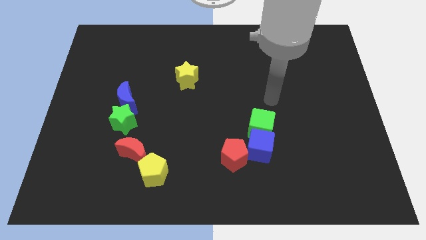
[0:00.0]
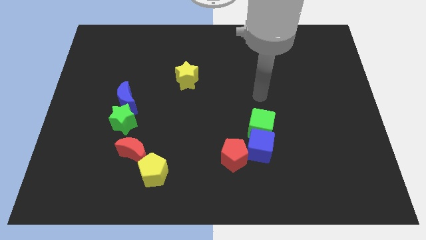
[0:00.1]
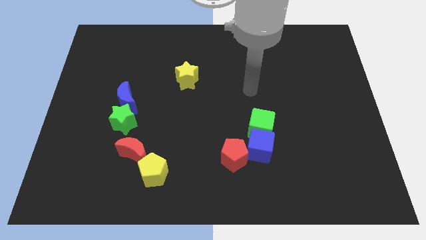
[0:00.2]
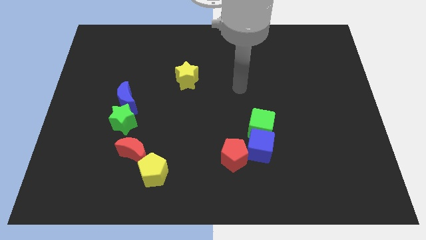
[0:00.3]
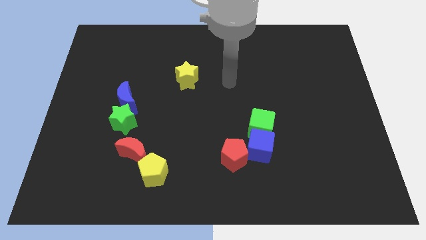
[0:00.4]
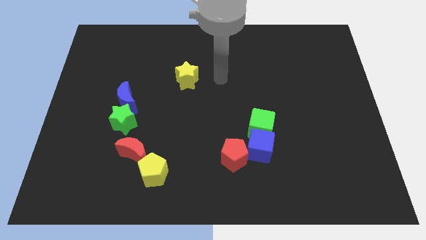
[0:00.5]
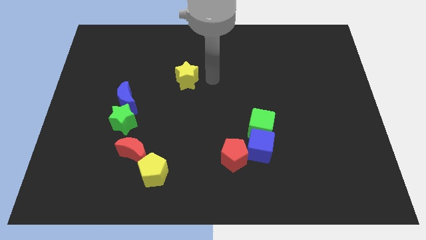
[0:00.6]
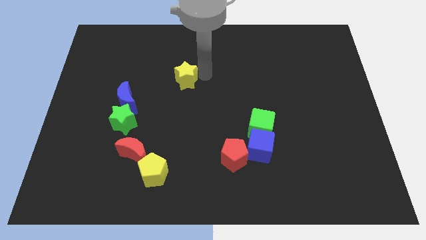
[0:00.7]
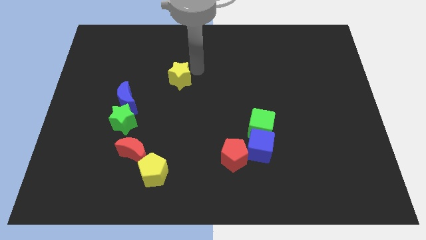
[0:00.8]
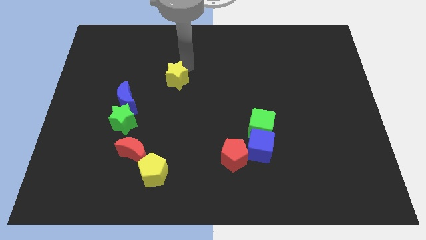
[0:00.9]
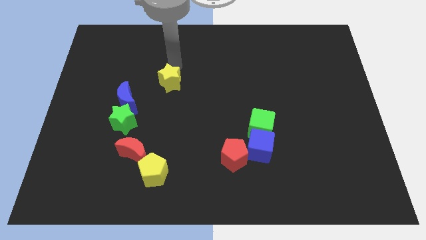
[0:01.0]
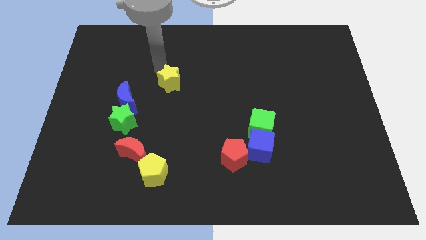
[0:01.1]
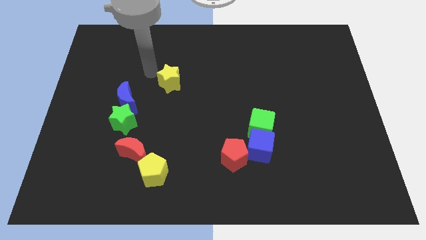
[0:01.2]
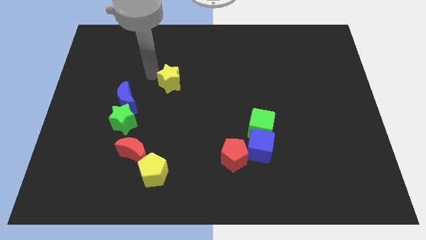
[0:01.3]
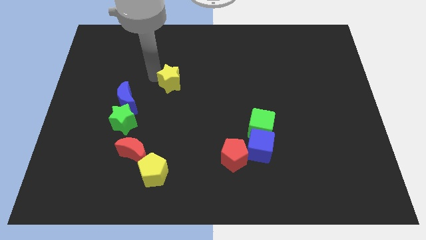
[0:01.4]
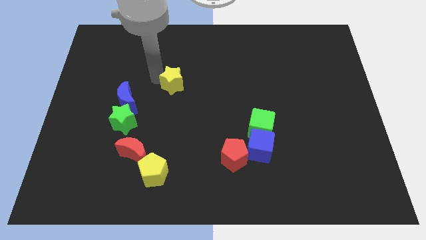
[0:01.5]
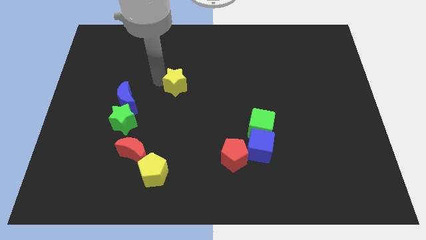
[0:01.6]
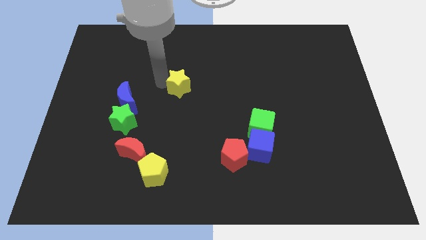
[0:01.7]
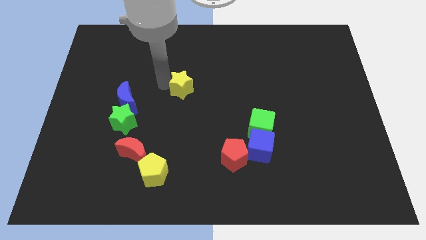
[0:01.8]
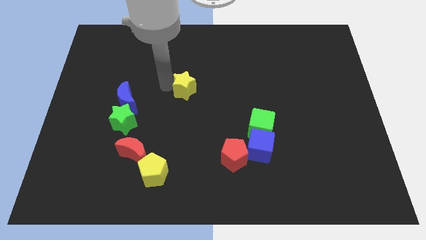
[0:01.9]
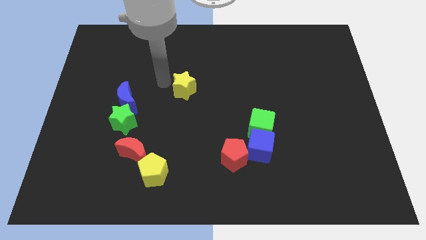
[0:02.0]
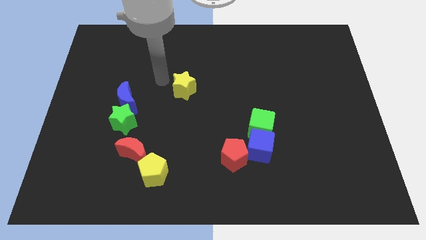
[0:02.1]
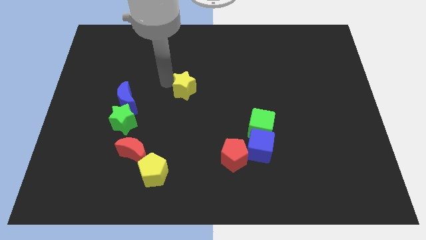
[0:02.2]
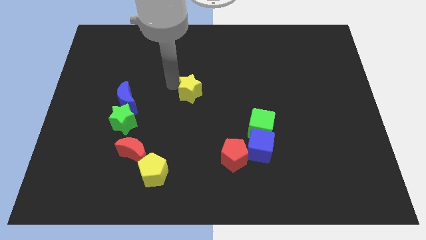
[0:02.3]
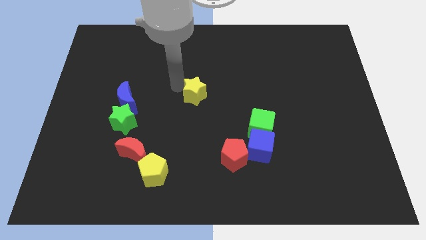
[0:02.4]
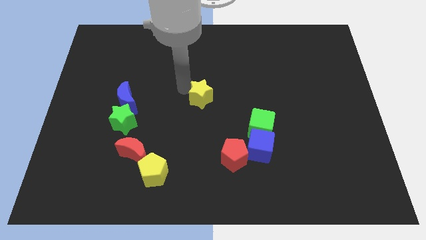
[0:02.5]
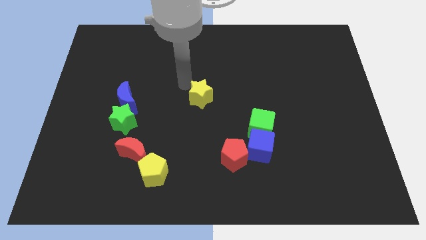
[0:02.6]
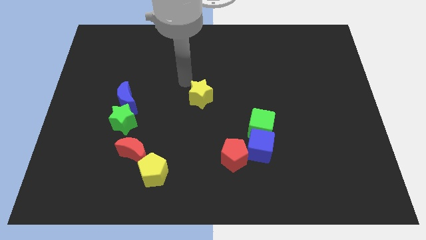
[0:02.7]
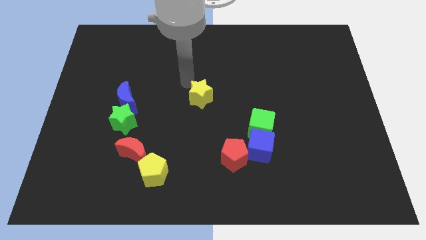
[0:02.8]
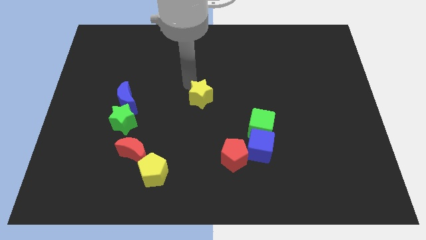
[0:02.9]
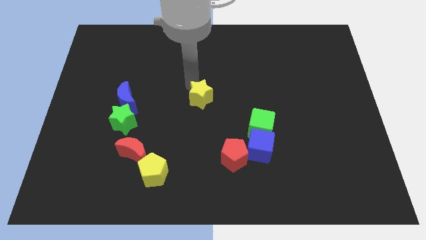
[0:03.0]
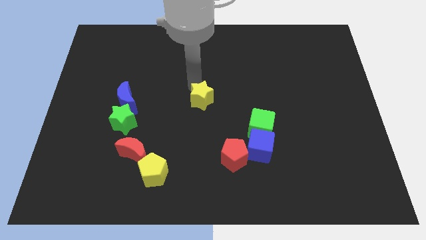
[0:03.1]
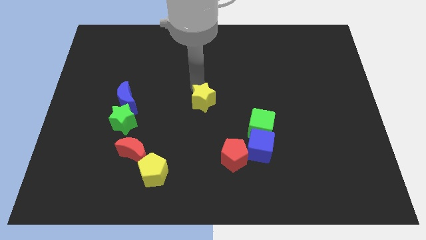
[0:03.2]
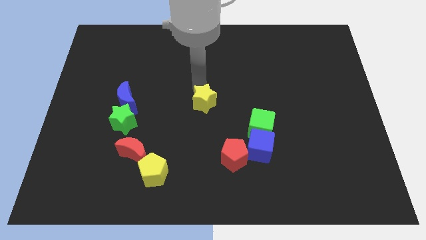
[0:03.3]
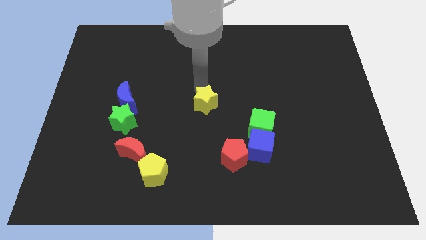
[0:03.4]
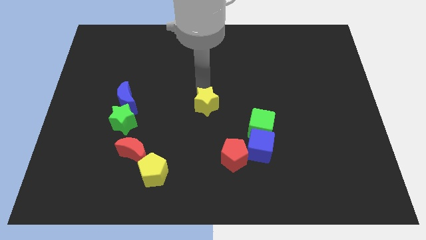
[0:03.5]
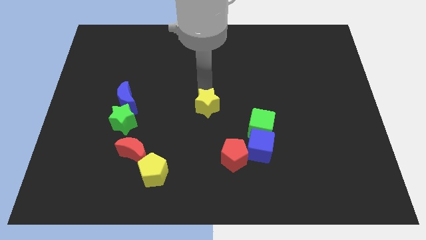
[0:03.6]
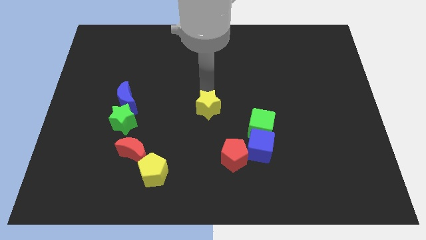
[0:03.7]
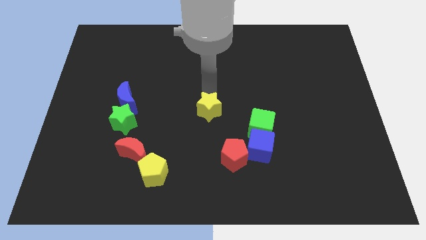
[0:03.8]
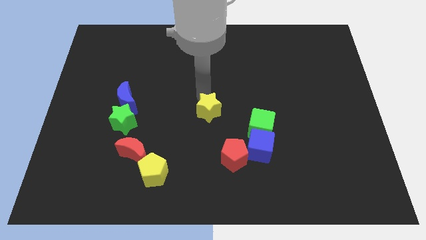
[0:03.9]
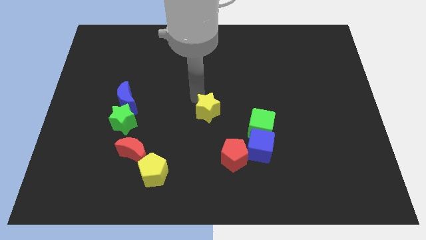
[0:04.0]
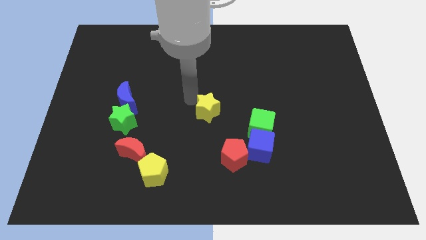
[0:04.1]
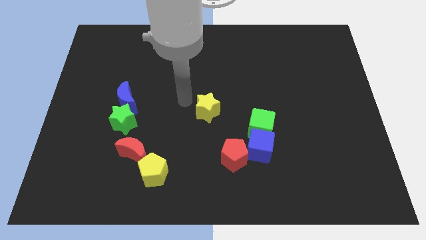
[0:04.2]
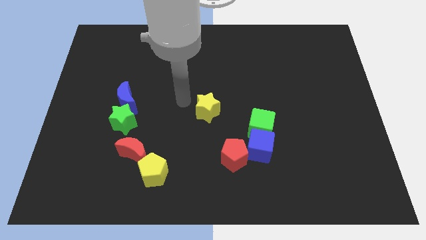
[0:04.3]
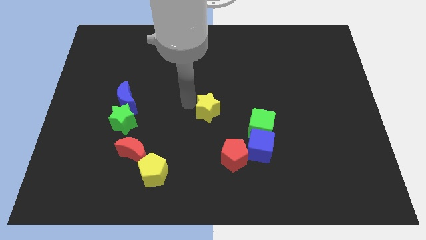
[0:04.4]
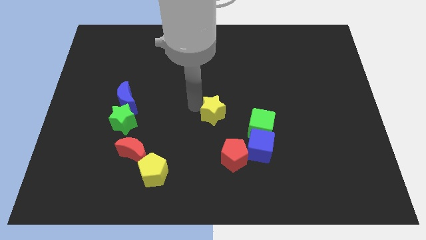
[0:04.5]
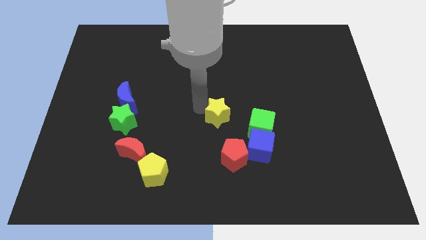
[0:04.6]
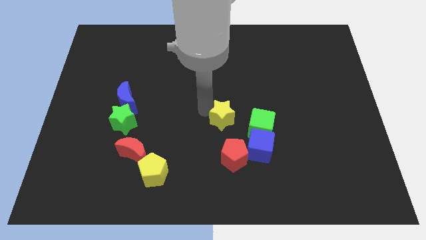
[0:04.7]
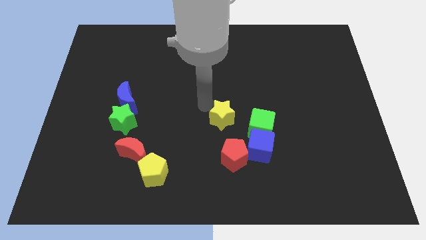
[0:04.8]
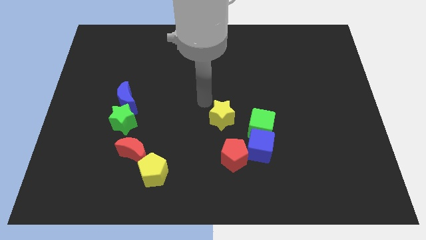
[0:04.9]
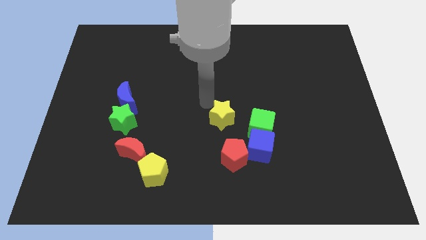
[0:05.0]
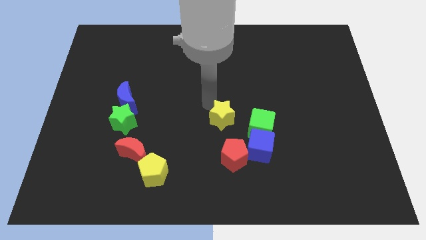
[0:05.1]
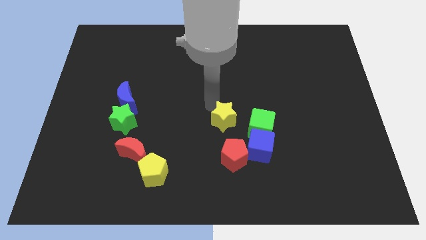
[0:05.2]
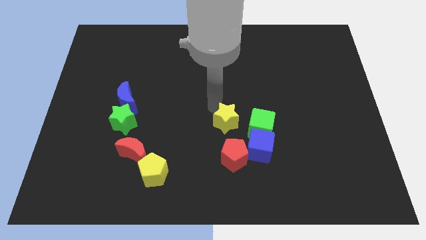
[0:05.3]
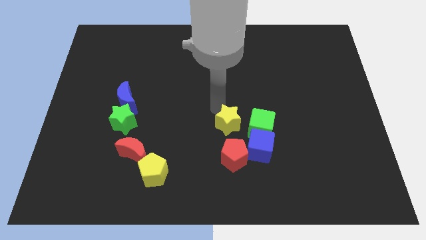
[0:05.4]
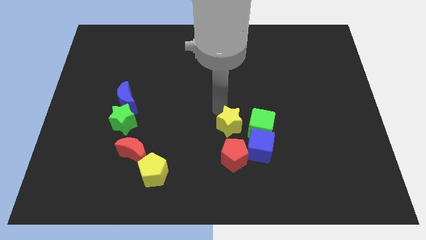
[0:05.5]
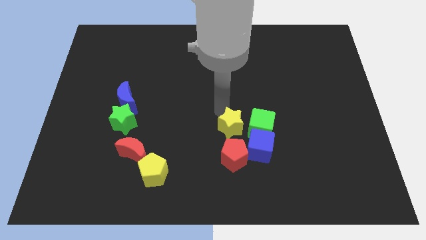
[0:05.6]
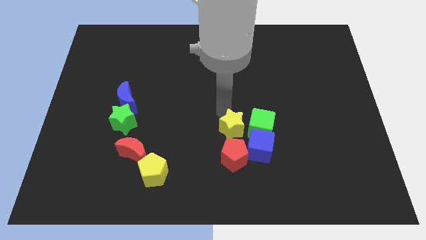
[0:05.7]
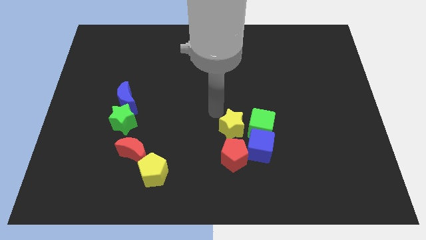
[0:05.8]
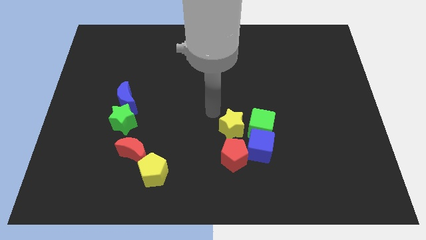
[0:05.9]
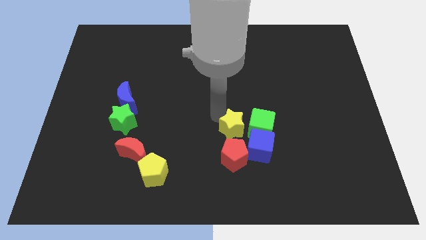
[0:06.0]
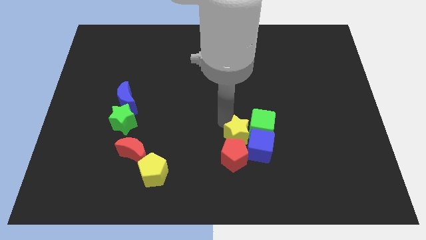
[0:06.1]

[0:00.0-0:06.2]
move the yellow star to the blue cube

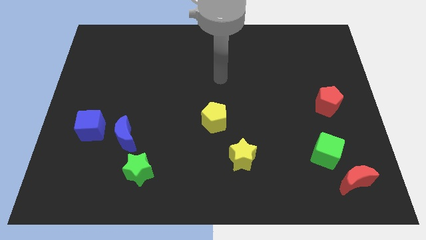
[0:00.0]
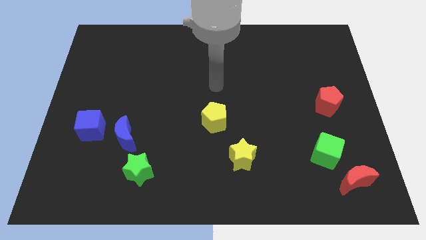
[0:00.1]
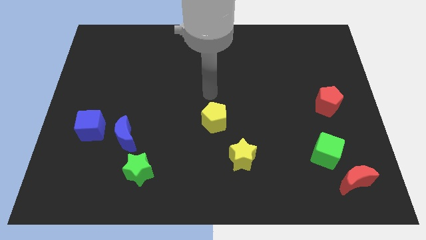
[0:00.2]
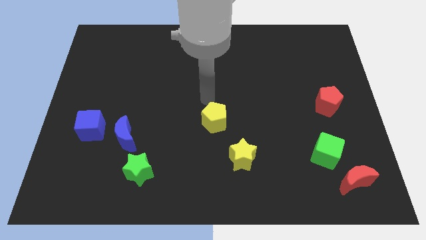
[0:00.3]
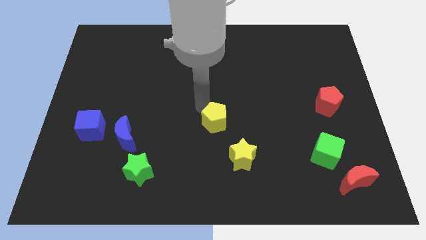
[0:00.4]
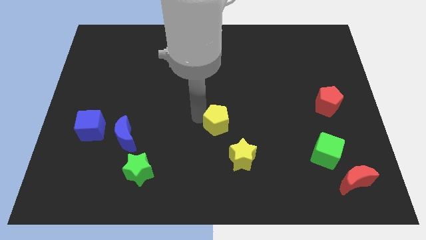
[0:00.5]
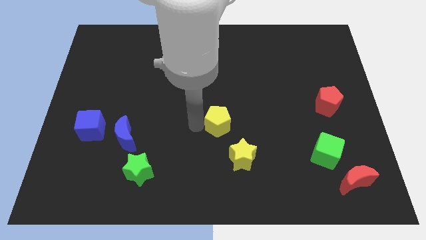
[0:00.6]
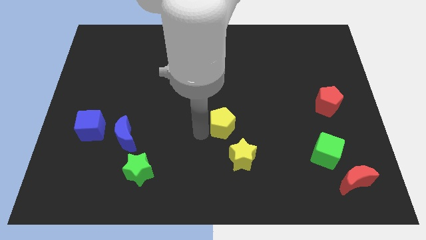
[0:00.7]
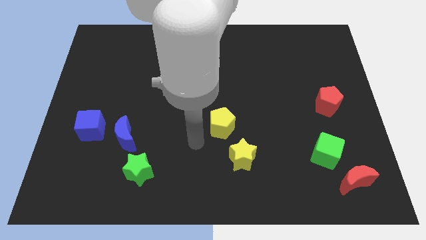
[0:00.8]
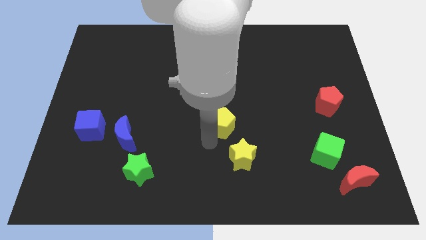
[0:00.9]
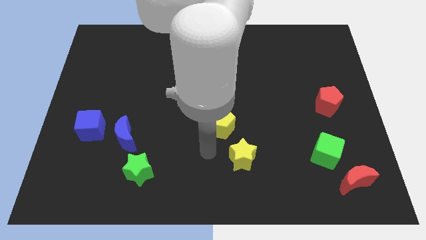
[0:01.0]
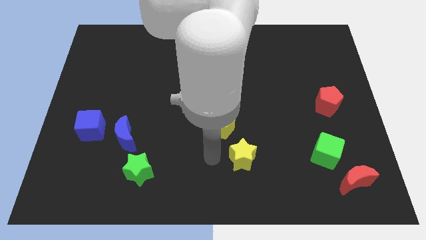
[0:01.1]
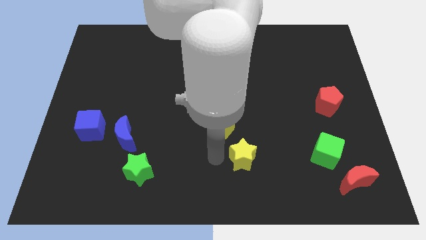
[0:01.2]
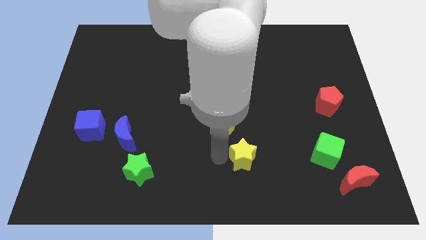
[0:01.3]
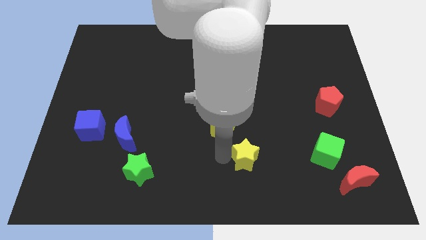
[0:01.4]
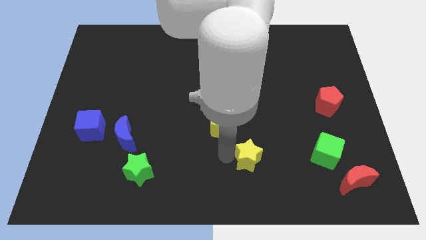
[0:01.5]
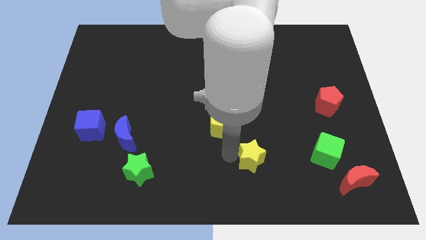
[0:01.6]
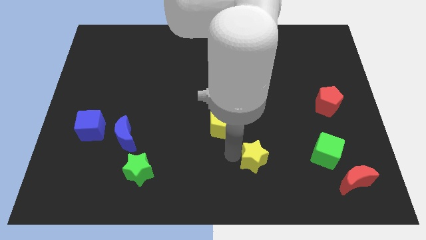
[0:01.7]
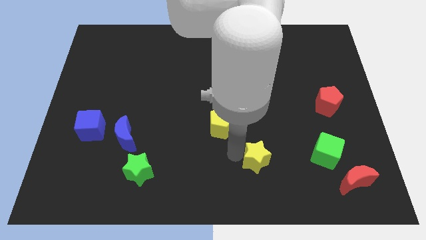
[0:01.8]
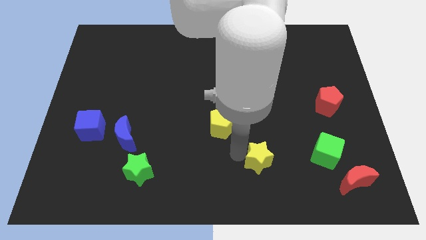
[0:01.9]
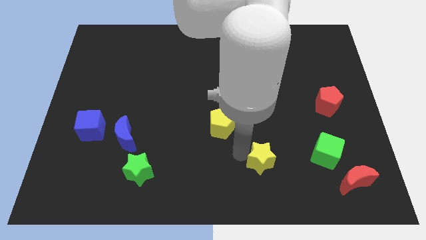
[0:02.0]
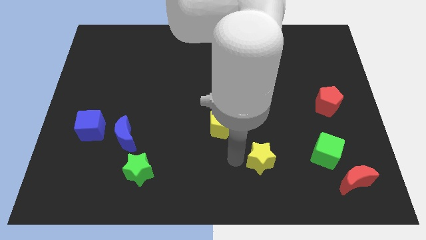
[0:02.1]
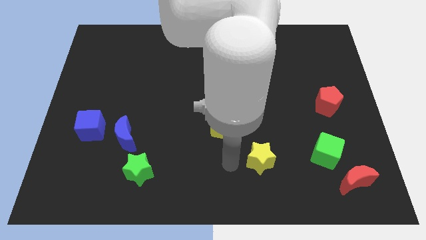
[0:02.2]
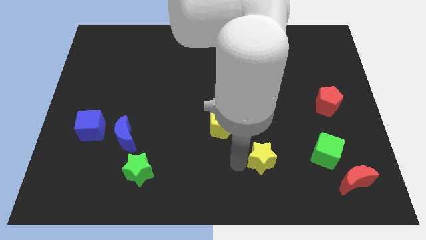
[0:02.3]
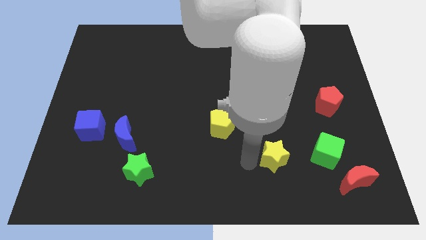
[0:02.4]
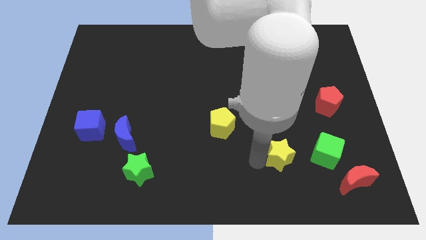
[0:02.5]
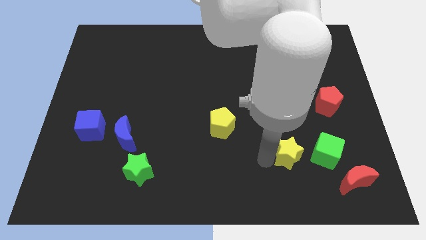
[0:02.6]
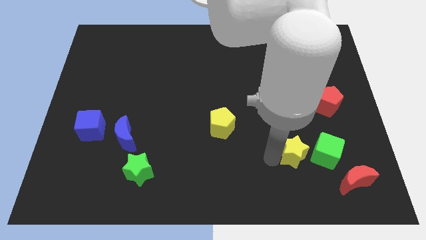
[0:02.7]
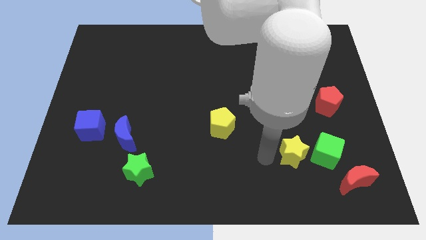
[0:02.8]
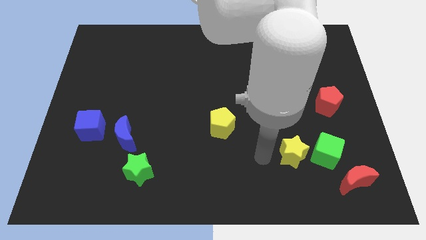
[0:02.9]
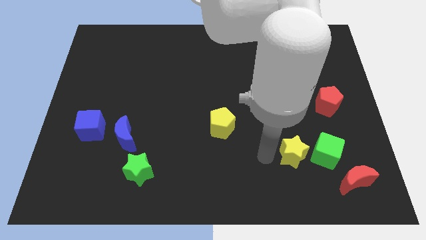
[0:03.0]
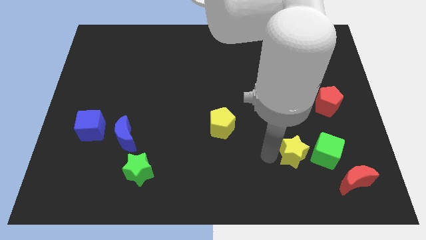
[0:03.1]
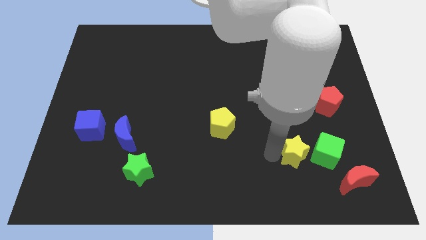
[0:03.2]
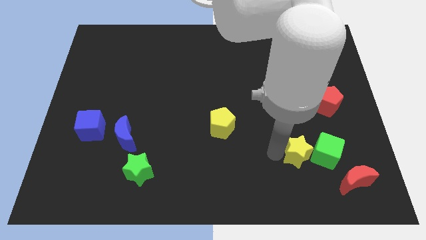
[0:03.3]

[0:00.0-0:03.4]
slide the yellow star next to the green cube
